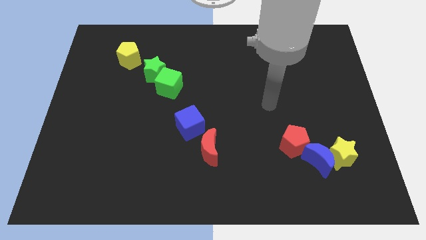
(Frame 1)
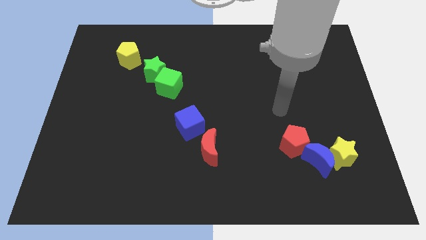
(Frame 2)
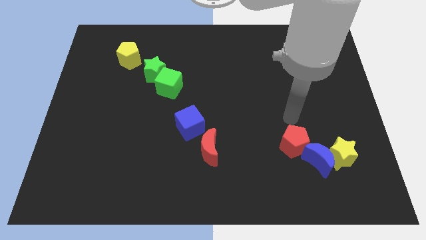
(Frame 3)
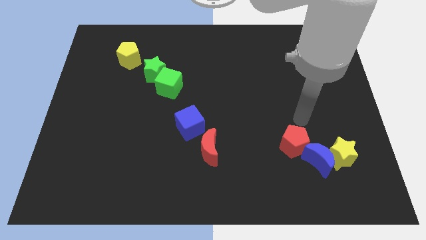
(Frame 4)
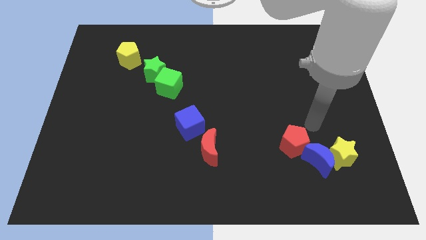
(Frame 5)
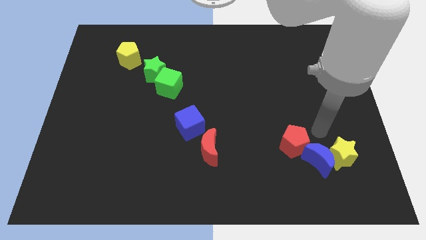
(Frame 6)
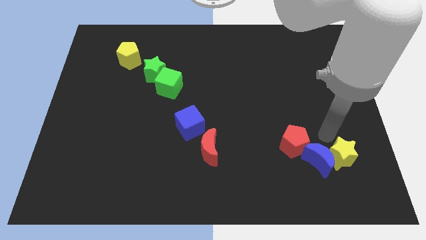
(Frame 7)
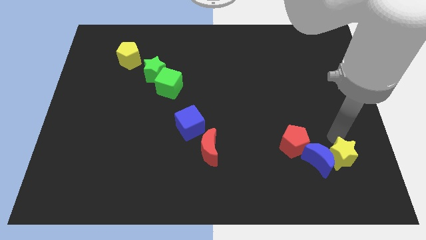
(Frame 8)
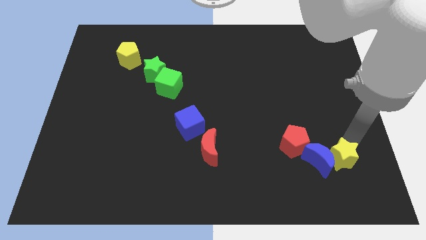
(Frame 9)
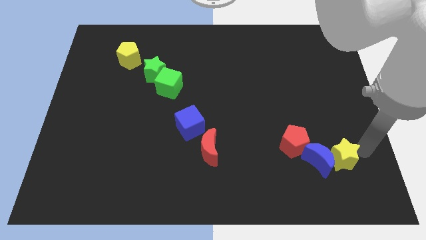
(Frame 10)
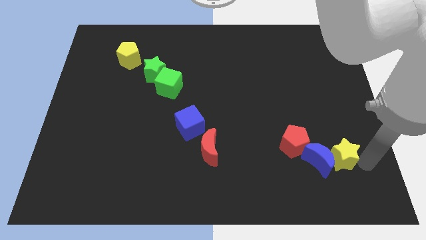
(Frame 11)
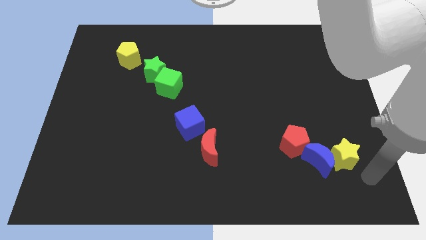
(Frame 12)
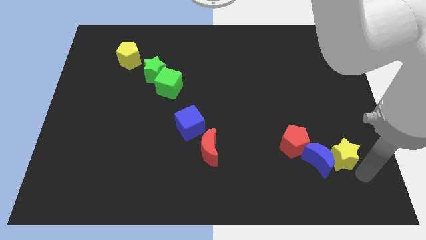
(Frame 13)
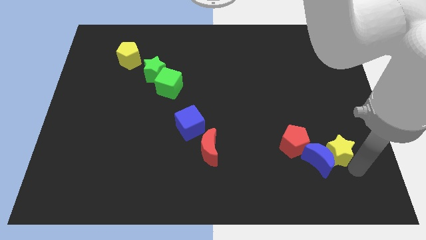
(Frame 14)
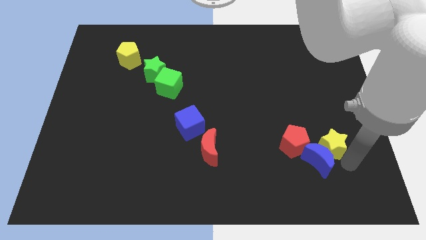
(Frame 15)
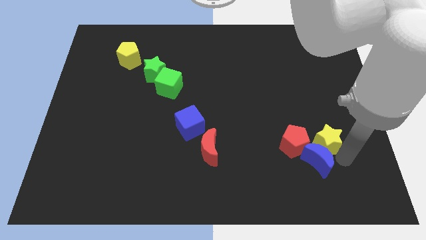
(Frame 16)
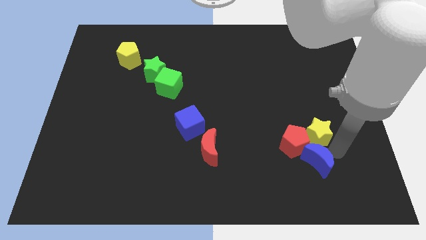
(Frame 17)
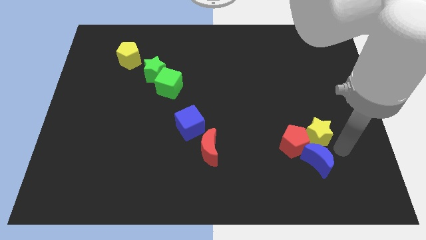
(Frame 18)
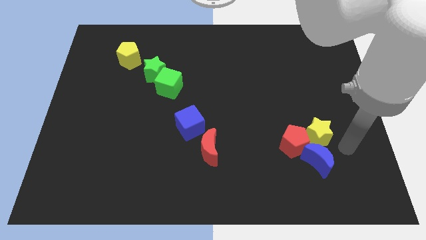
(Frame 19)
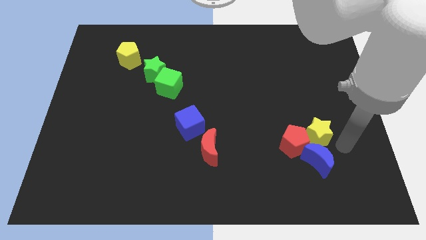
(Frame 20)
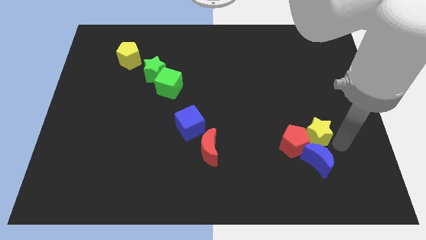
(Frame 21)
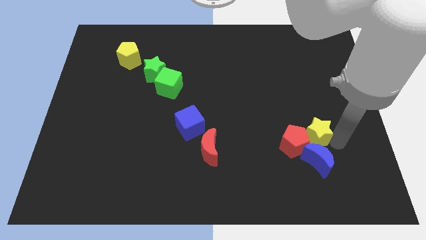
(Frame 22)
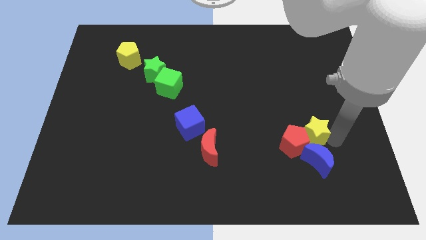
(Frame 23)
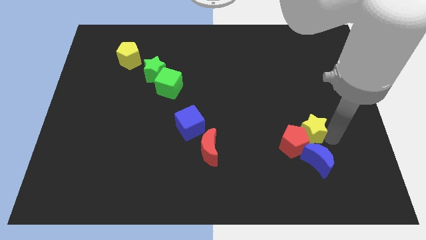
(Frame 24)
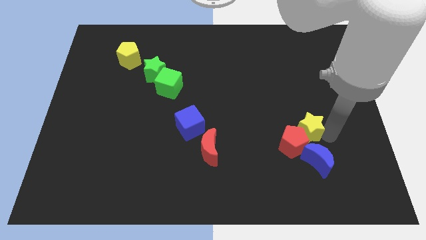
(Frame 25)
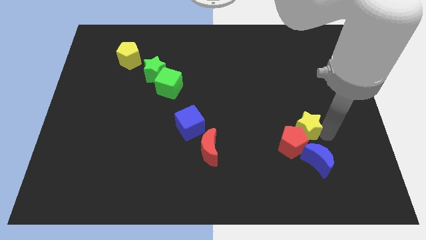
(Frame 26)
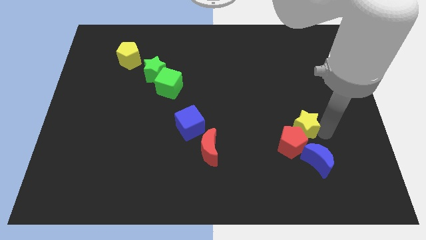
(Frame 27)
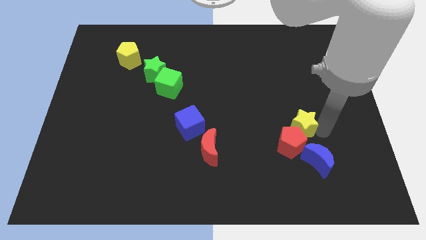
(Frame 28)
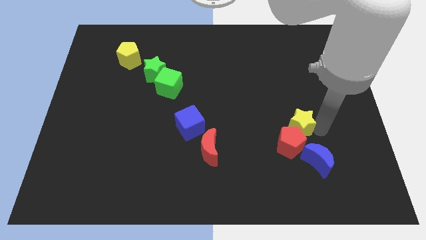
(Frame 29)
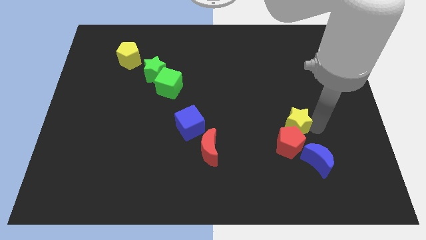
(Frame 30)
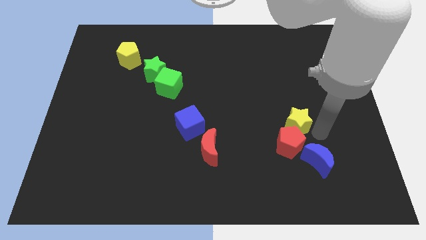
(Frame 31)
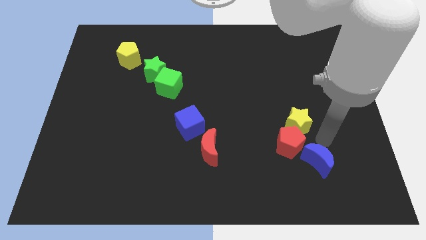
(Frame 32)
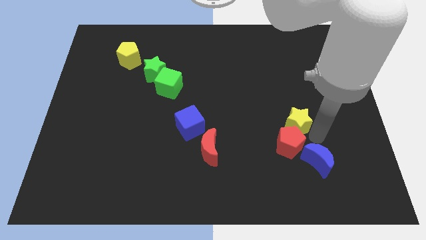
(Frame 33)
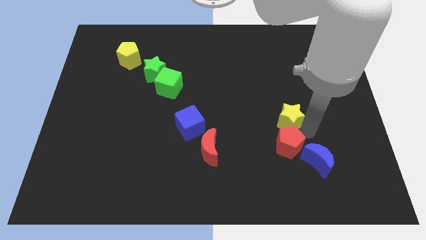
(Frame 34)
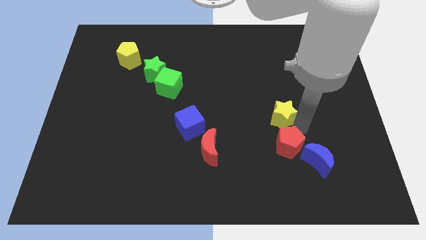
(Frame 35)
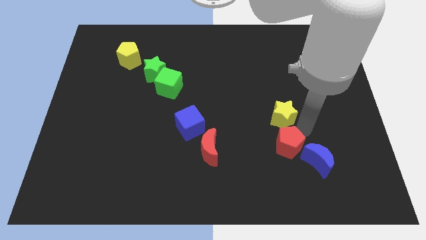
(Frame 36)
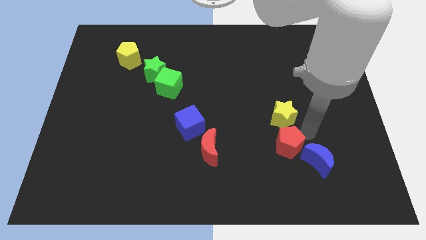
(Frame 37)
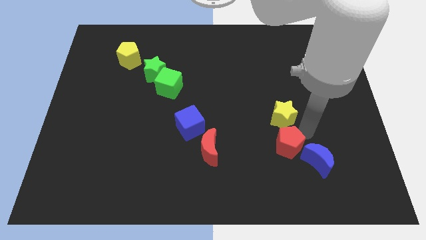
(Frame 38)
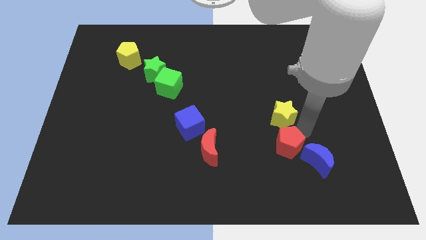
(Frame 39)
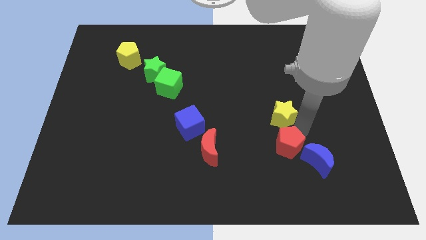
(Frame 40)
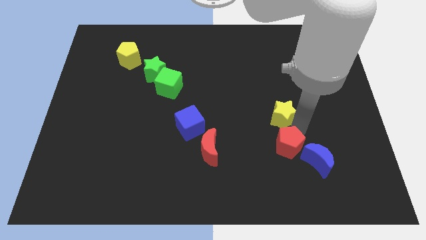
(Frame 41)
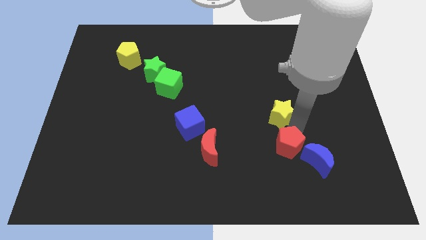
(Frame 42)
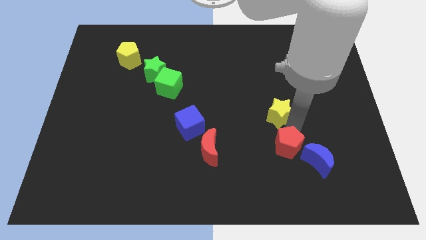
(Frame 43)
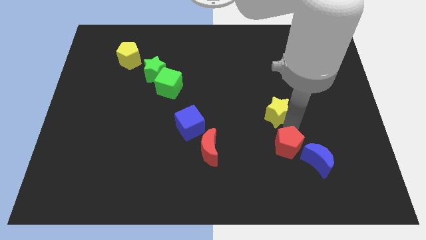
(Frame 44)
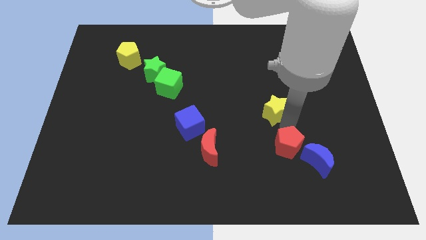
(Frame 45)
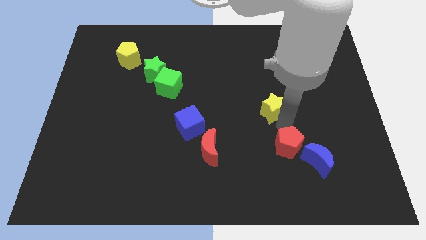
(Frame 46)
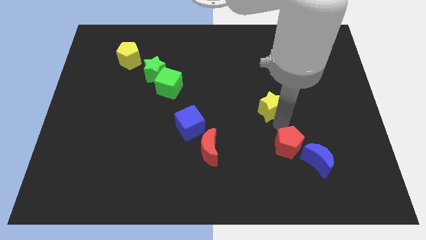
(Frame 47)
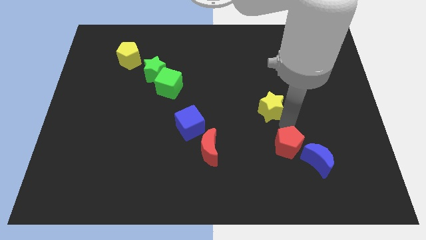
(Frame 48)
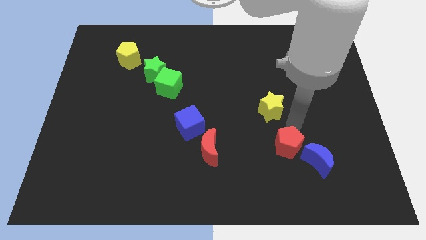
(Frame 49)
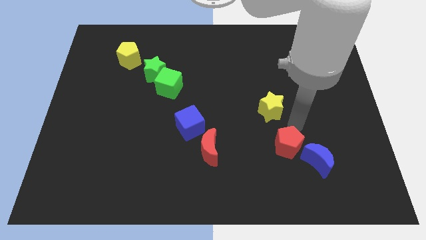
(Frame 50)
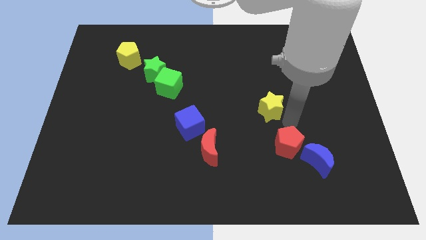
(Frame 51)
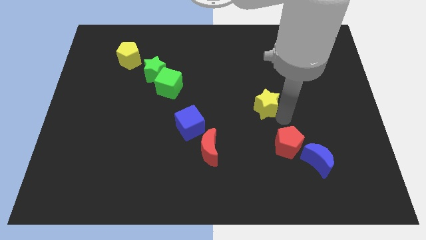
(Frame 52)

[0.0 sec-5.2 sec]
slide the yellow star up and to the left

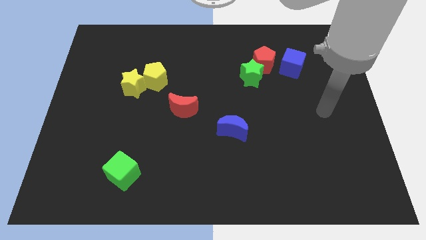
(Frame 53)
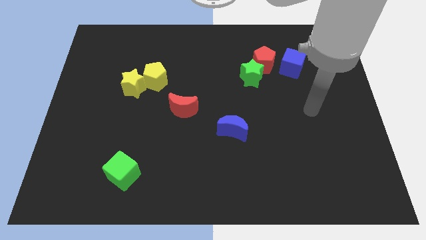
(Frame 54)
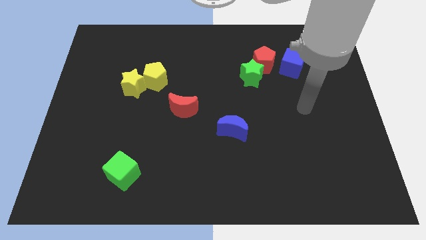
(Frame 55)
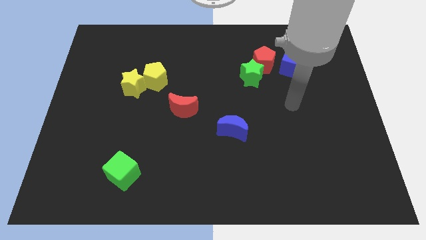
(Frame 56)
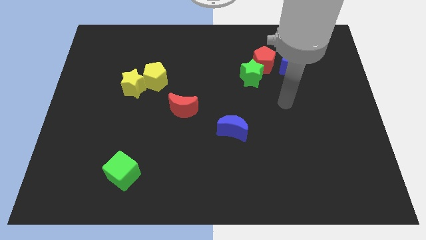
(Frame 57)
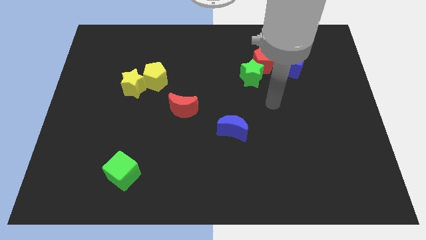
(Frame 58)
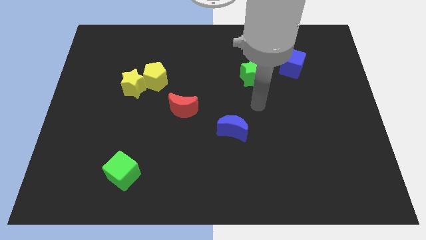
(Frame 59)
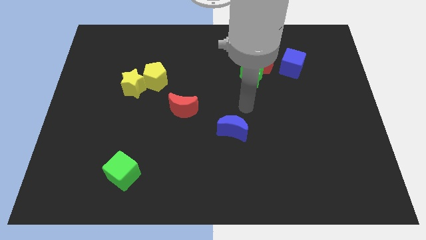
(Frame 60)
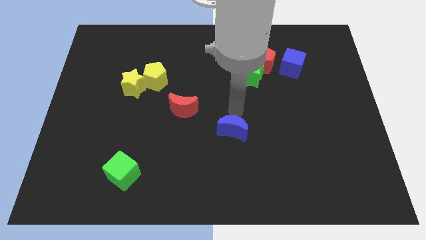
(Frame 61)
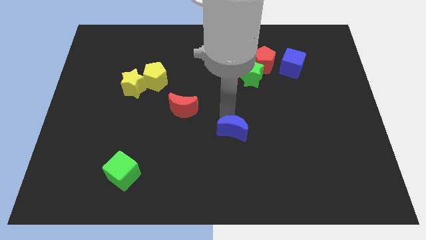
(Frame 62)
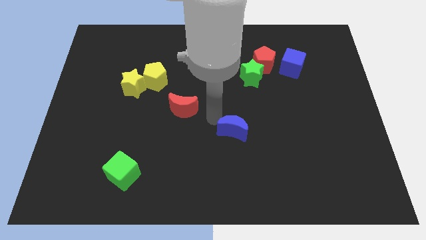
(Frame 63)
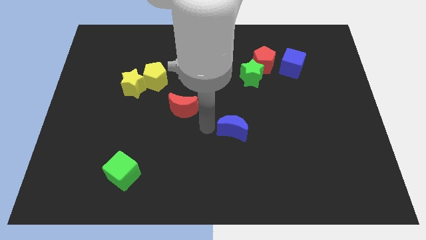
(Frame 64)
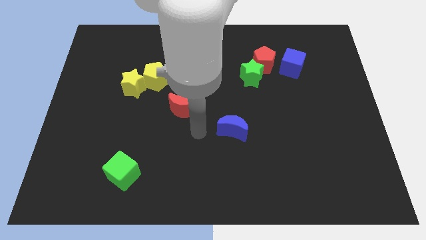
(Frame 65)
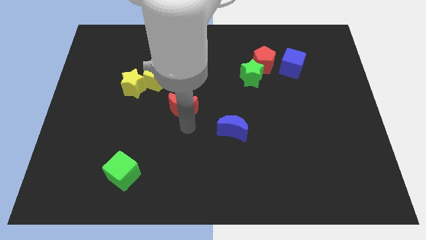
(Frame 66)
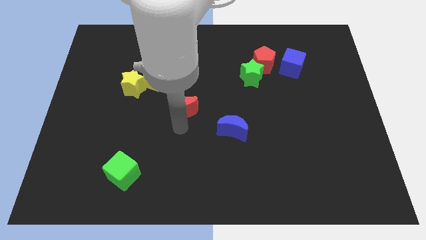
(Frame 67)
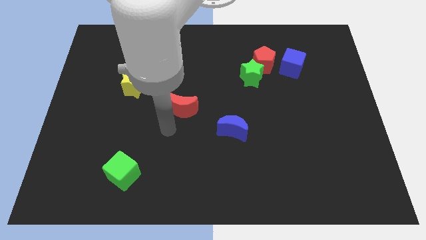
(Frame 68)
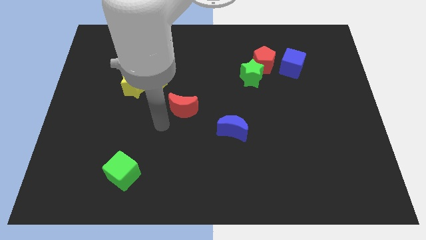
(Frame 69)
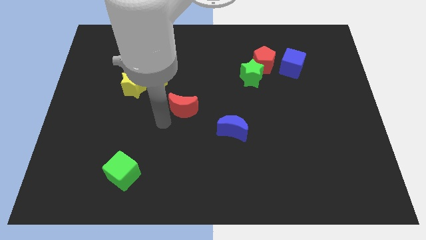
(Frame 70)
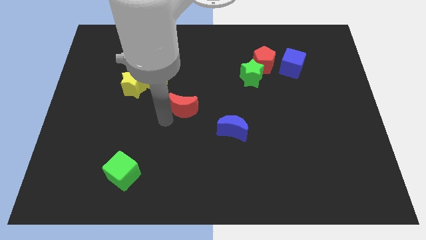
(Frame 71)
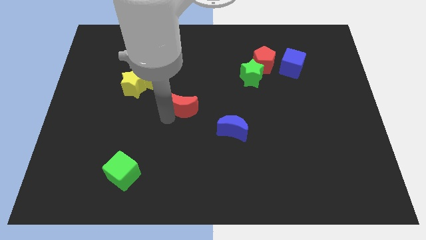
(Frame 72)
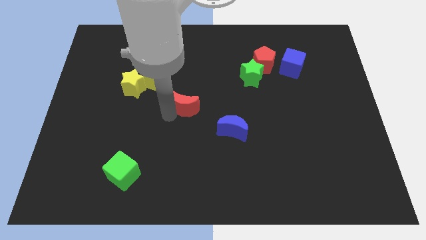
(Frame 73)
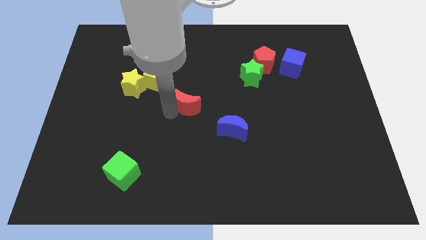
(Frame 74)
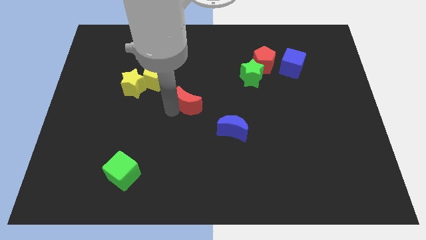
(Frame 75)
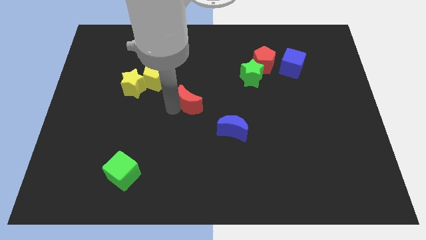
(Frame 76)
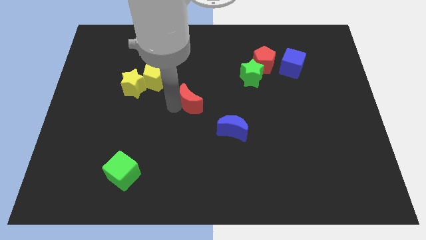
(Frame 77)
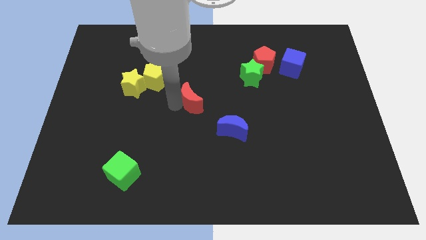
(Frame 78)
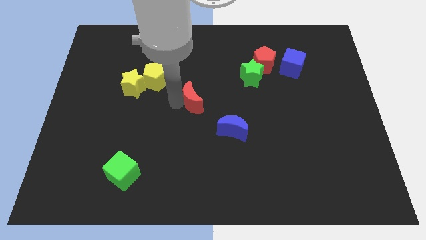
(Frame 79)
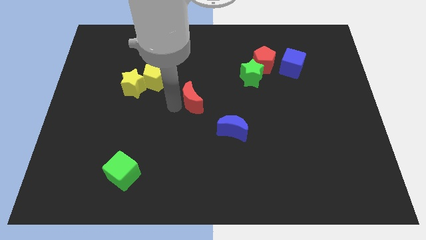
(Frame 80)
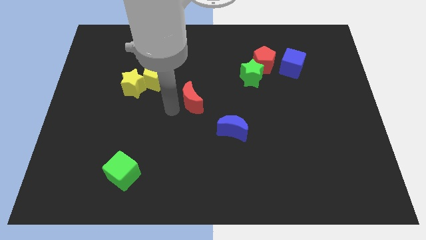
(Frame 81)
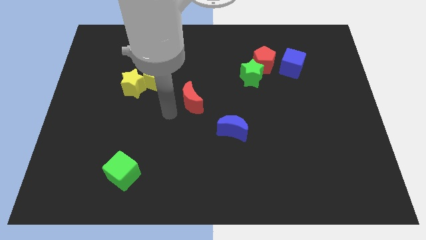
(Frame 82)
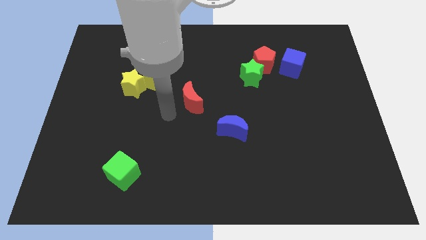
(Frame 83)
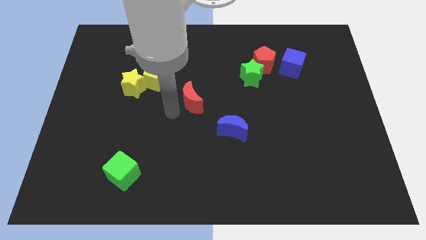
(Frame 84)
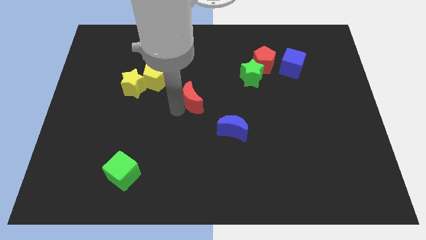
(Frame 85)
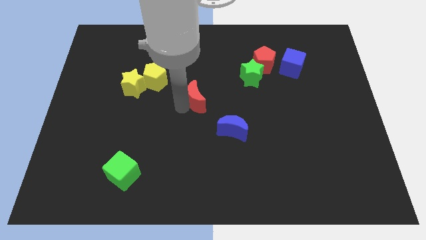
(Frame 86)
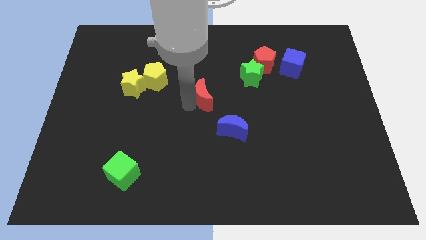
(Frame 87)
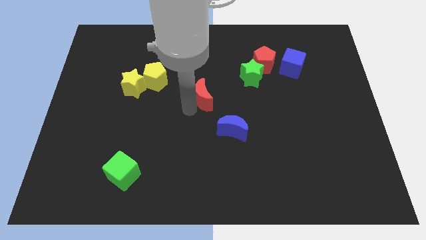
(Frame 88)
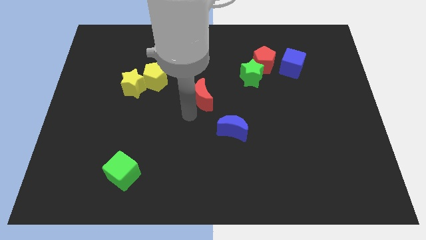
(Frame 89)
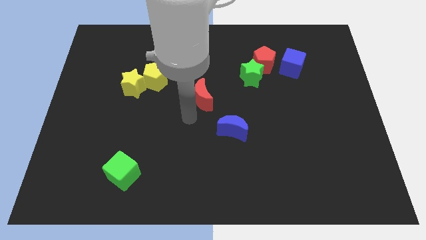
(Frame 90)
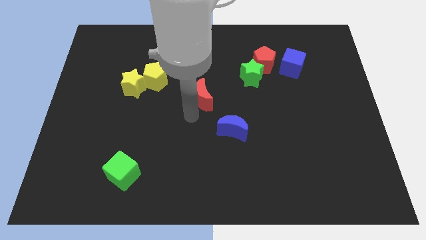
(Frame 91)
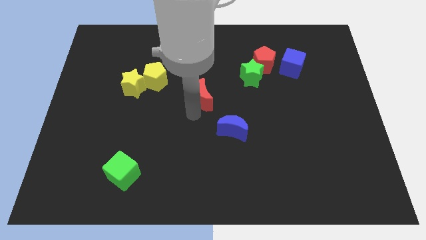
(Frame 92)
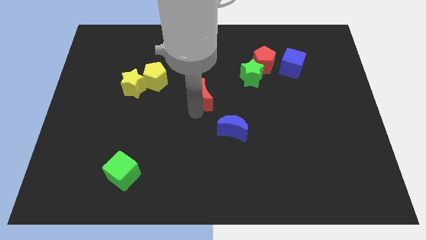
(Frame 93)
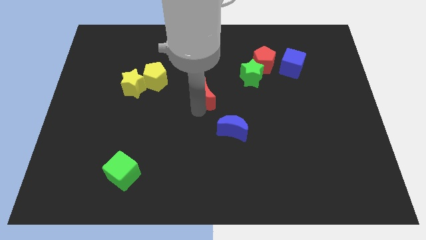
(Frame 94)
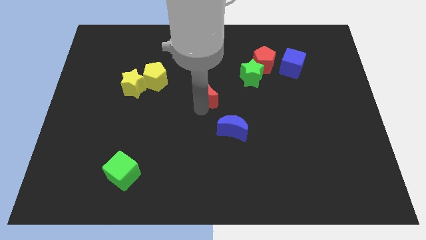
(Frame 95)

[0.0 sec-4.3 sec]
move the red moon slightly diagonally up and to the right
